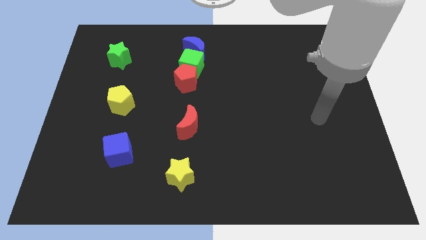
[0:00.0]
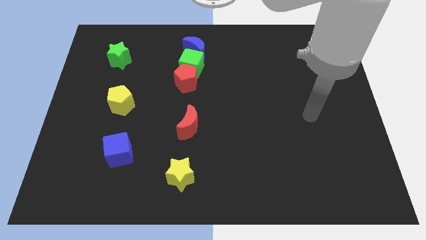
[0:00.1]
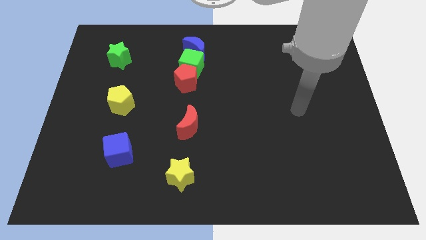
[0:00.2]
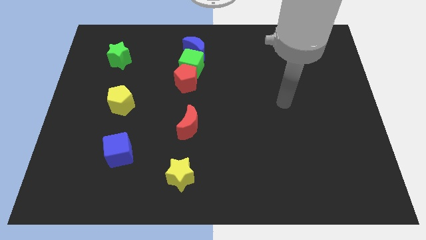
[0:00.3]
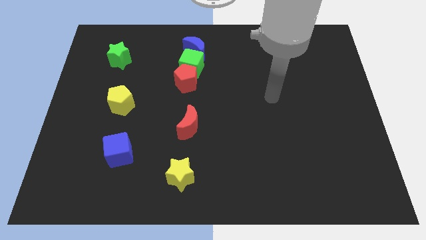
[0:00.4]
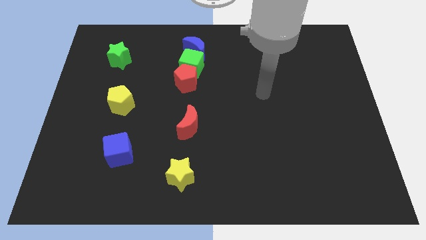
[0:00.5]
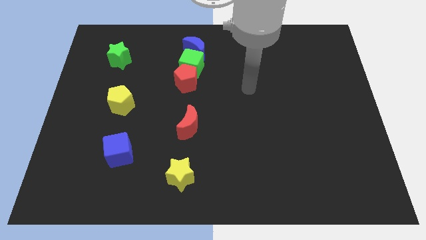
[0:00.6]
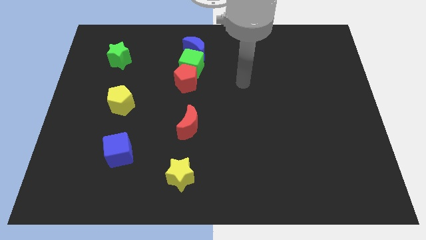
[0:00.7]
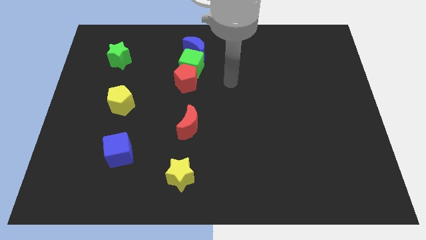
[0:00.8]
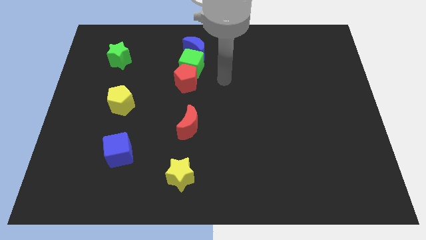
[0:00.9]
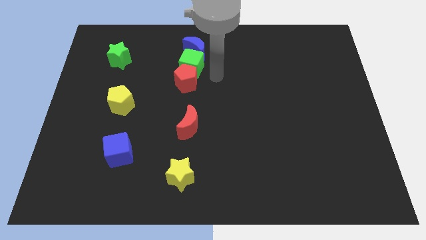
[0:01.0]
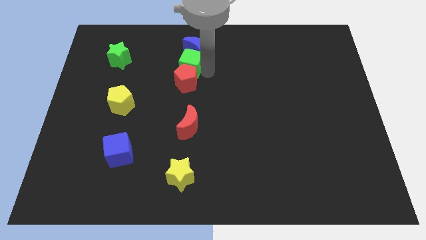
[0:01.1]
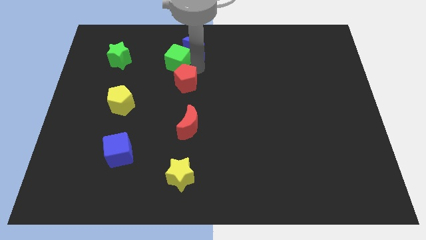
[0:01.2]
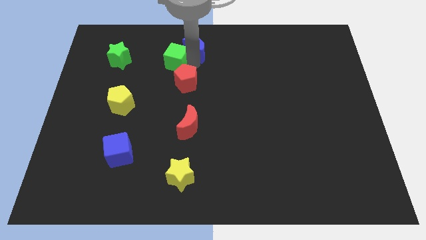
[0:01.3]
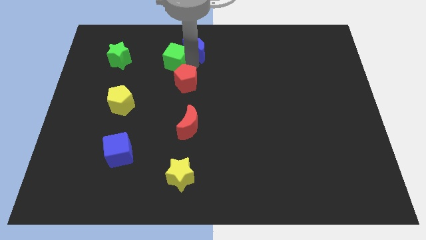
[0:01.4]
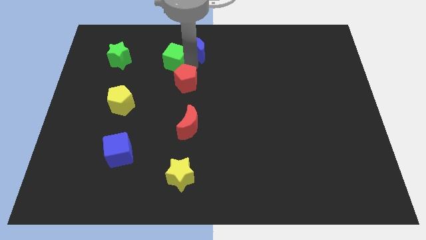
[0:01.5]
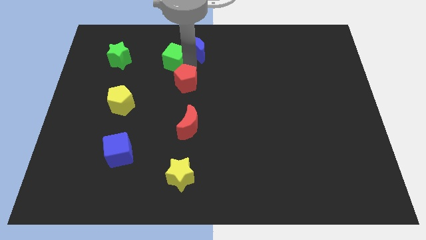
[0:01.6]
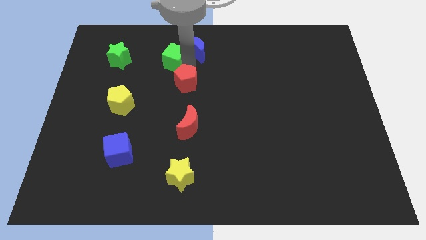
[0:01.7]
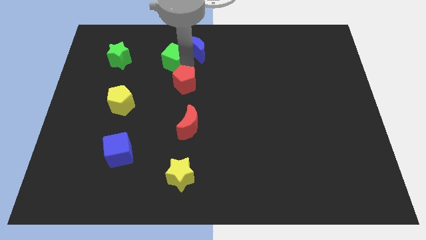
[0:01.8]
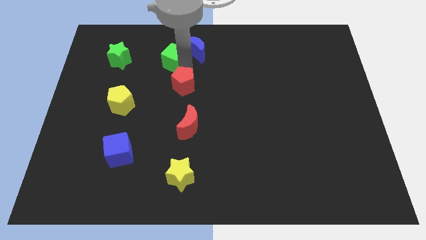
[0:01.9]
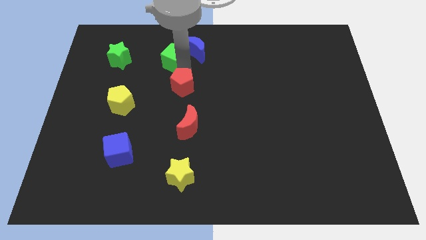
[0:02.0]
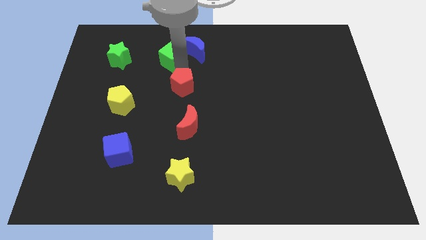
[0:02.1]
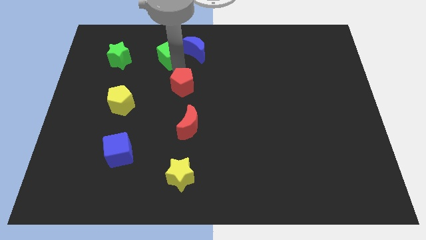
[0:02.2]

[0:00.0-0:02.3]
separate the red pentagon from the green cube

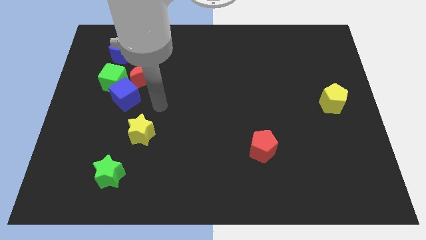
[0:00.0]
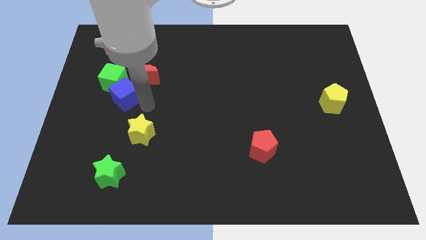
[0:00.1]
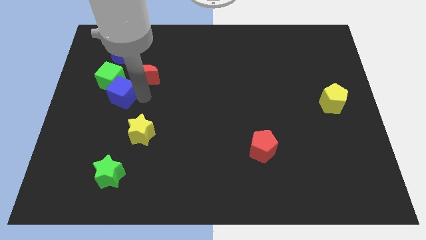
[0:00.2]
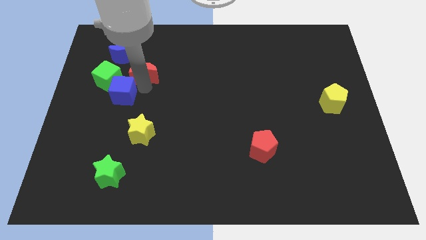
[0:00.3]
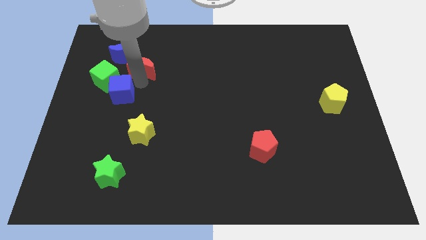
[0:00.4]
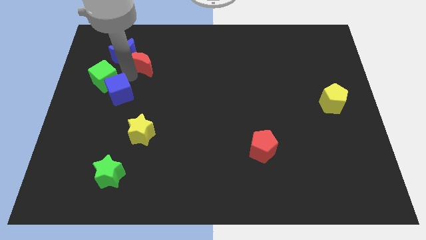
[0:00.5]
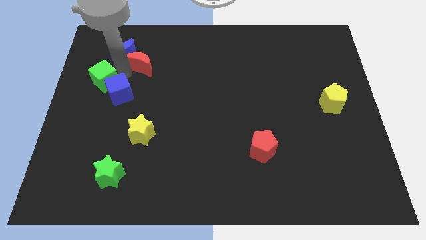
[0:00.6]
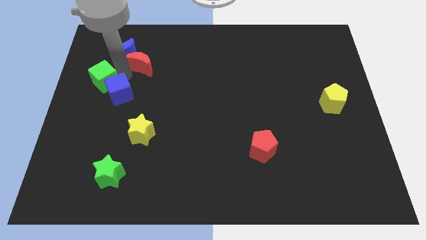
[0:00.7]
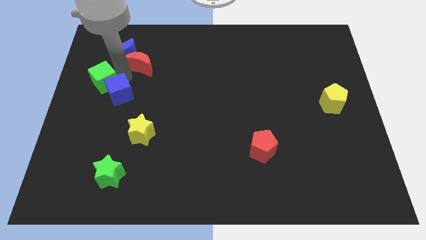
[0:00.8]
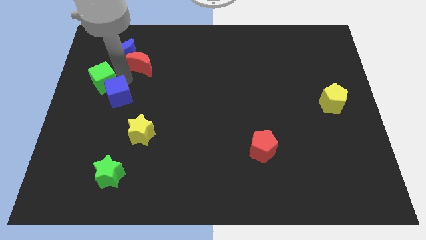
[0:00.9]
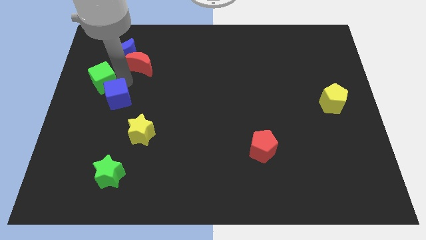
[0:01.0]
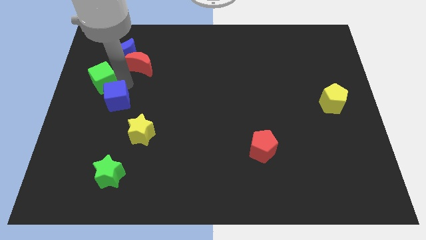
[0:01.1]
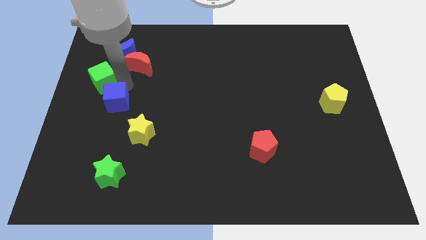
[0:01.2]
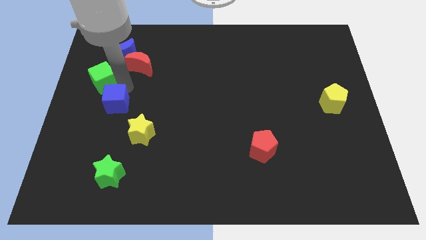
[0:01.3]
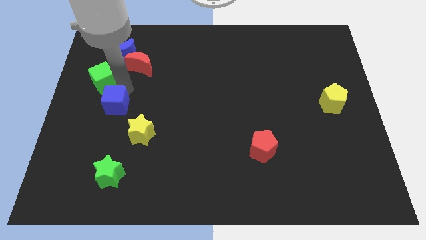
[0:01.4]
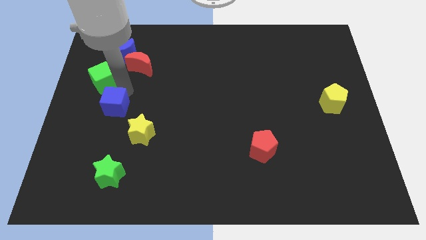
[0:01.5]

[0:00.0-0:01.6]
move the blue cube away from the green cube and red moon

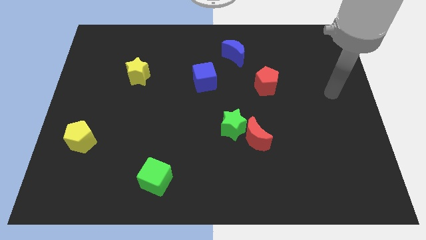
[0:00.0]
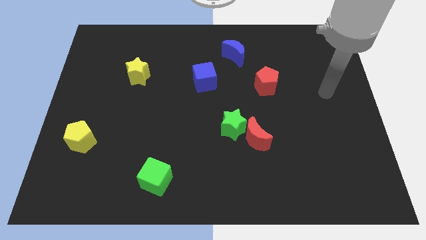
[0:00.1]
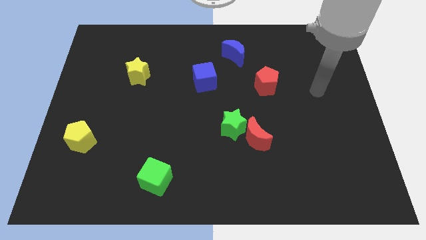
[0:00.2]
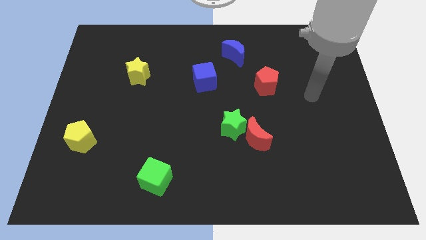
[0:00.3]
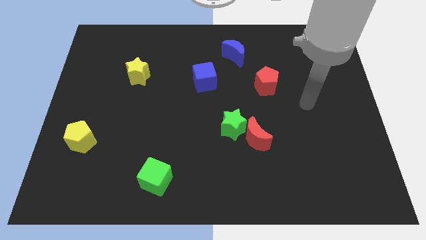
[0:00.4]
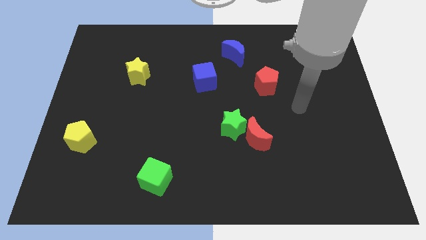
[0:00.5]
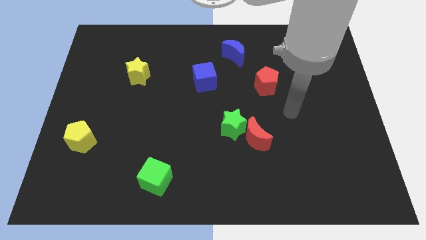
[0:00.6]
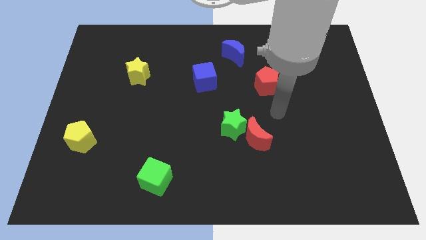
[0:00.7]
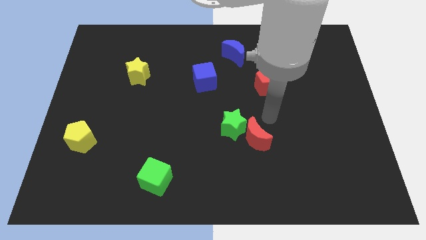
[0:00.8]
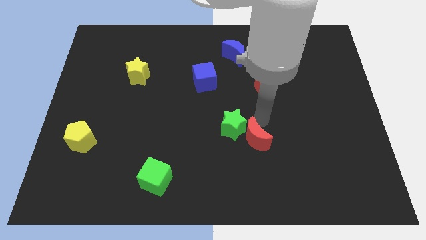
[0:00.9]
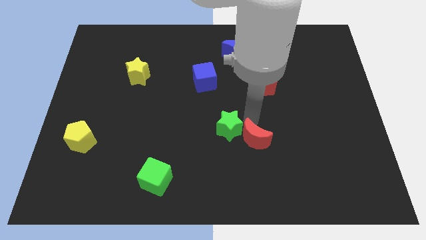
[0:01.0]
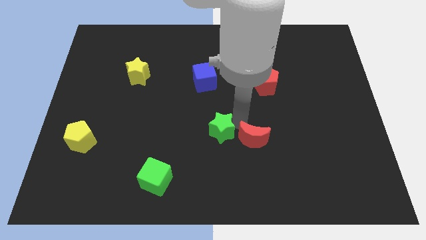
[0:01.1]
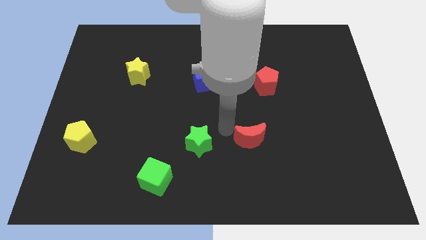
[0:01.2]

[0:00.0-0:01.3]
separate the red moon from the green star

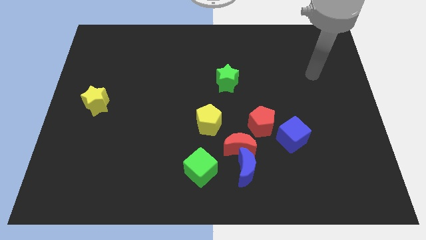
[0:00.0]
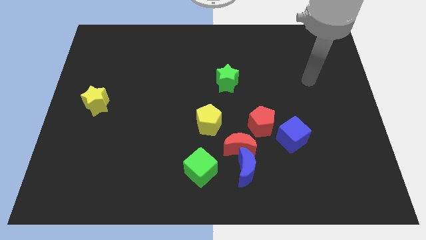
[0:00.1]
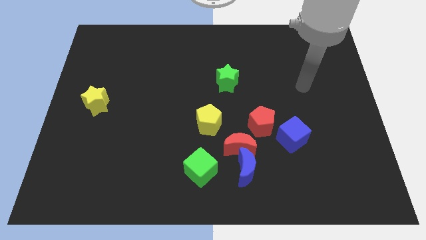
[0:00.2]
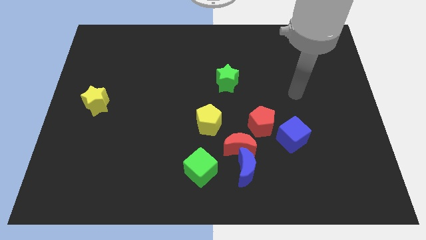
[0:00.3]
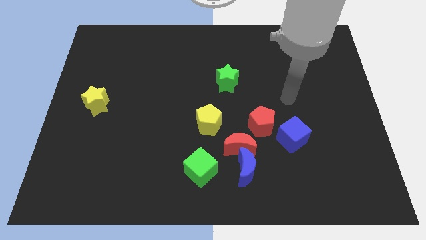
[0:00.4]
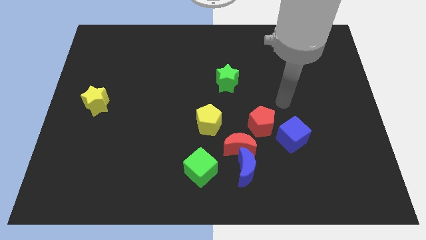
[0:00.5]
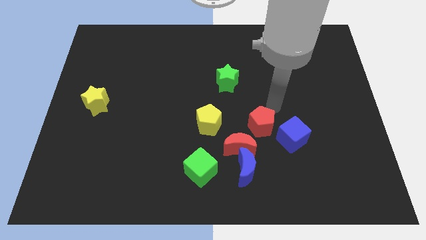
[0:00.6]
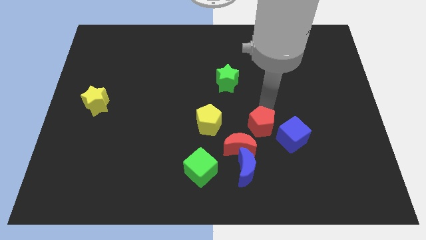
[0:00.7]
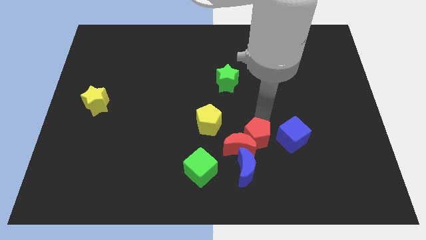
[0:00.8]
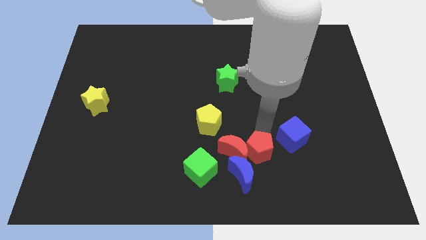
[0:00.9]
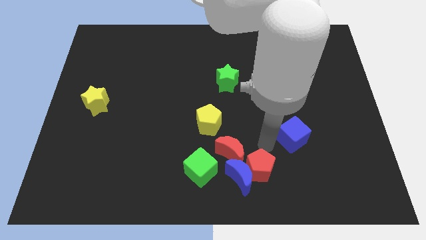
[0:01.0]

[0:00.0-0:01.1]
separate the blue cube from the red pentagon

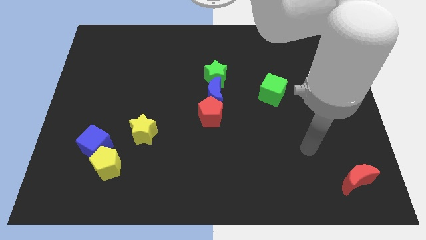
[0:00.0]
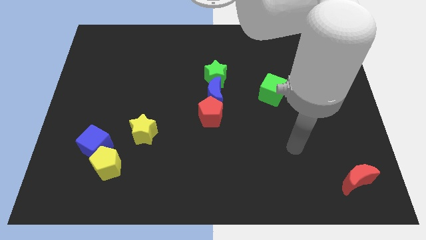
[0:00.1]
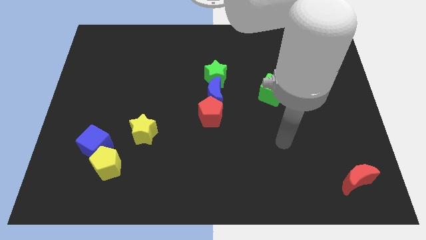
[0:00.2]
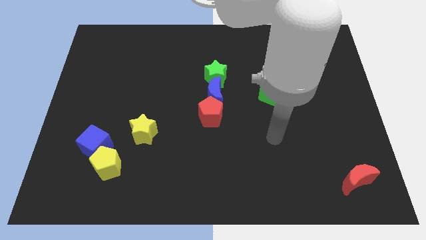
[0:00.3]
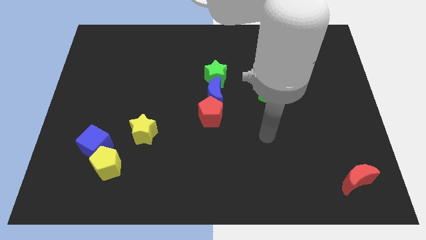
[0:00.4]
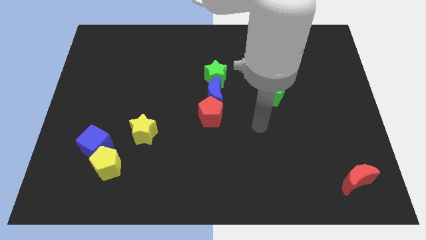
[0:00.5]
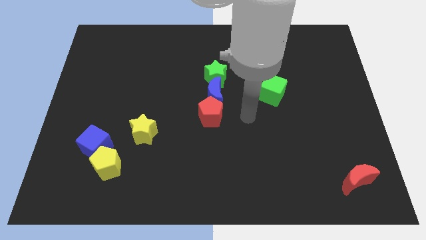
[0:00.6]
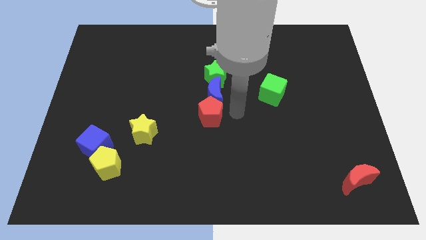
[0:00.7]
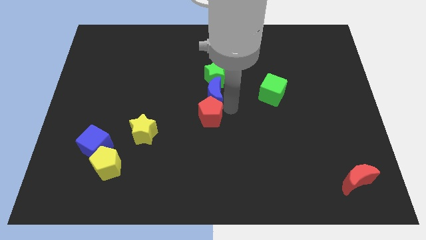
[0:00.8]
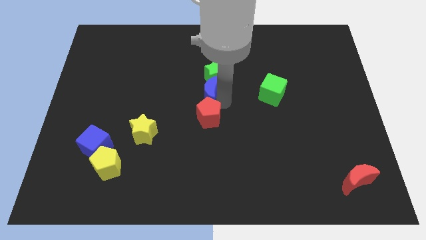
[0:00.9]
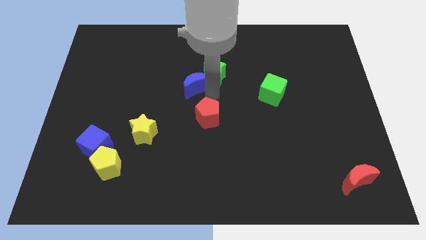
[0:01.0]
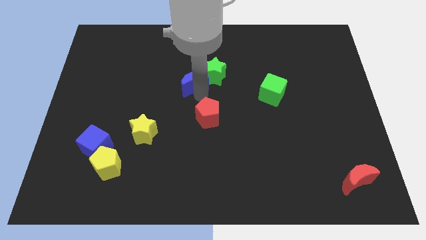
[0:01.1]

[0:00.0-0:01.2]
pull the red pentagon apart from the blue moon

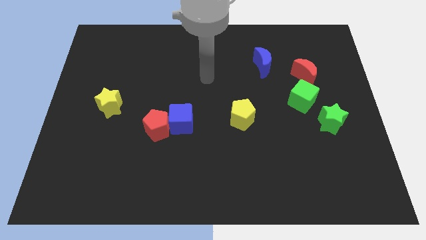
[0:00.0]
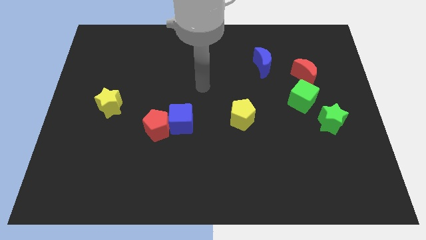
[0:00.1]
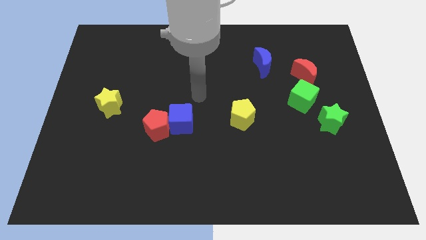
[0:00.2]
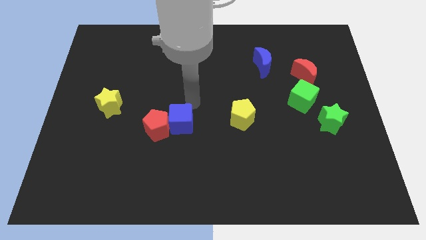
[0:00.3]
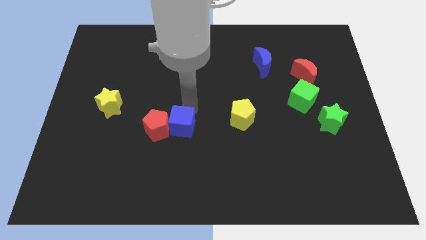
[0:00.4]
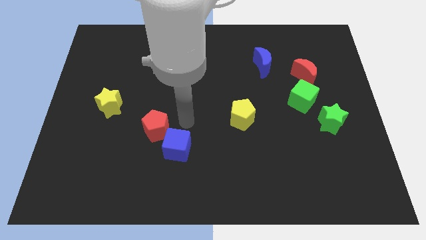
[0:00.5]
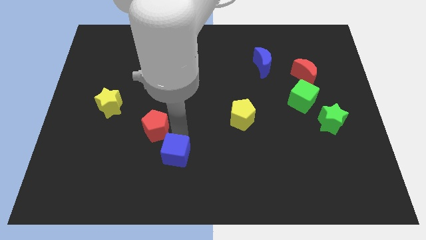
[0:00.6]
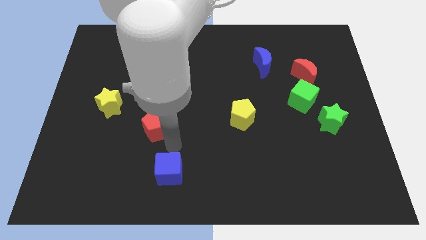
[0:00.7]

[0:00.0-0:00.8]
separate the red pentagon from the blue cube

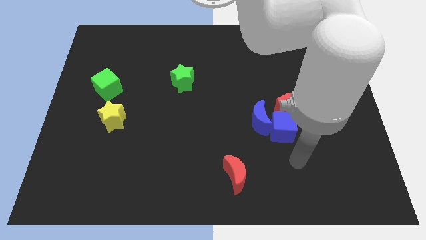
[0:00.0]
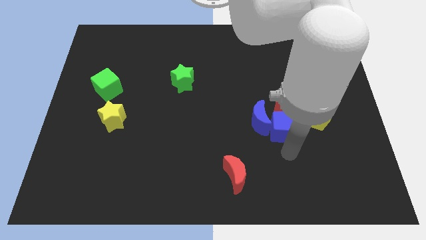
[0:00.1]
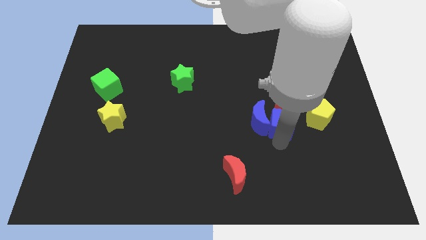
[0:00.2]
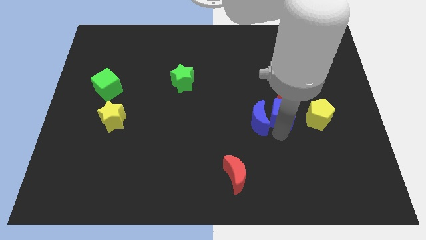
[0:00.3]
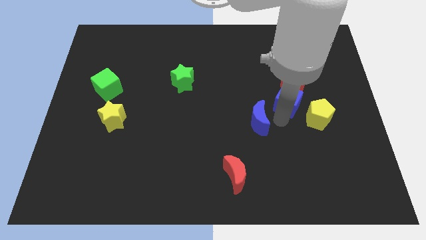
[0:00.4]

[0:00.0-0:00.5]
separate the blue moon from the blue cube and red pentagon

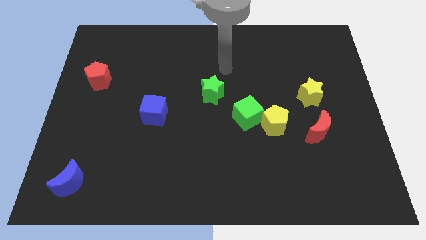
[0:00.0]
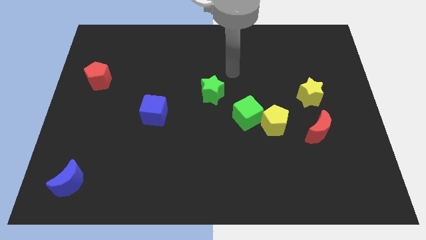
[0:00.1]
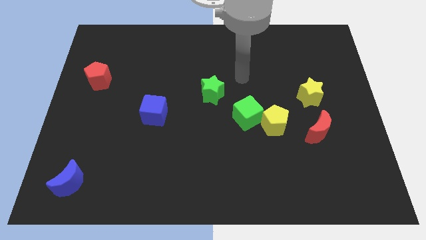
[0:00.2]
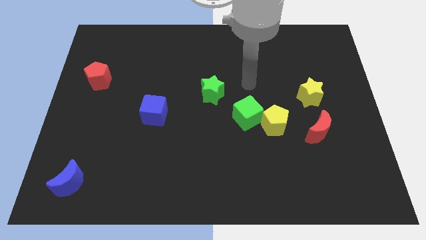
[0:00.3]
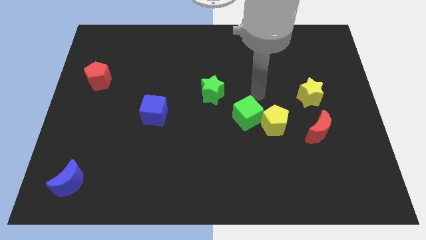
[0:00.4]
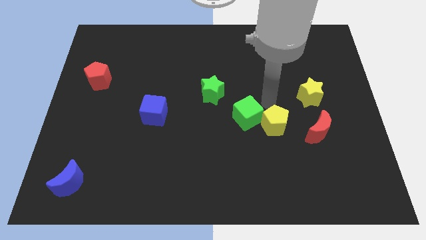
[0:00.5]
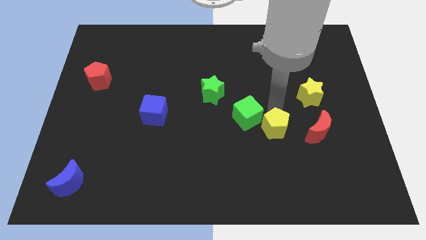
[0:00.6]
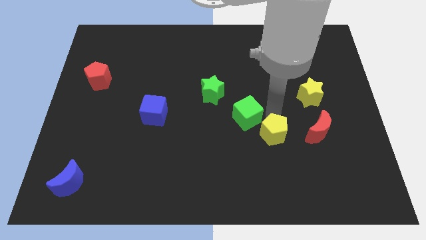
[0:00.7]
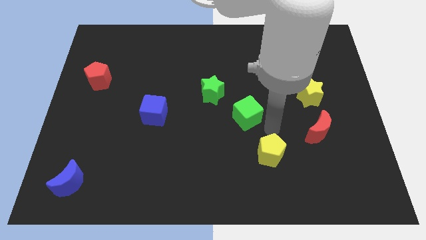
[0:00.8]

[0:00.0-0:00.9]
move the green cube away from the yellow pentagon
